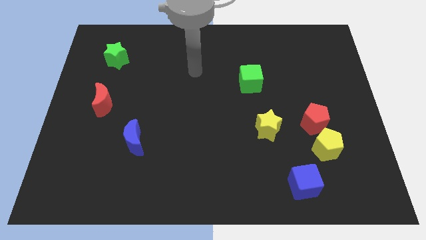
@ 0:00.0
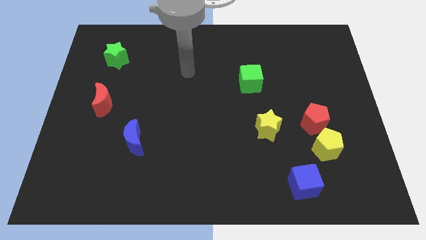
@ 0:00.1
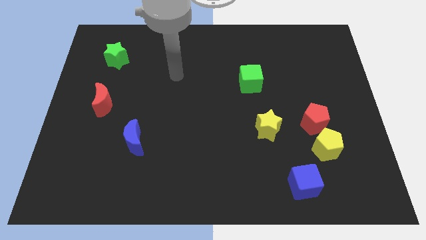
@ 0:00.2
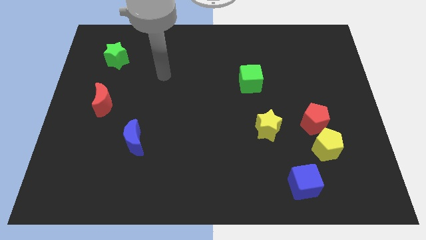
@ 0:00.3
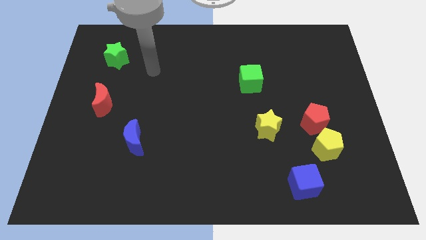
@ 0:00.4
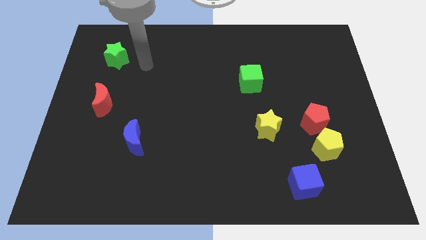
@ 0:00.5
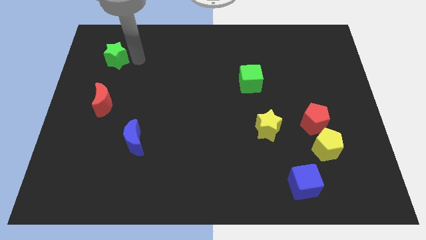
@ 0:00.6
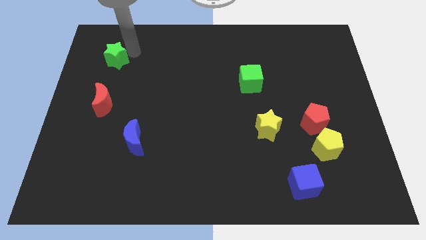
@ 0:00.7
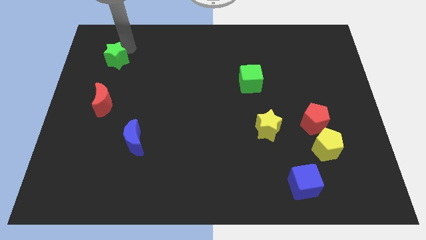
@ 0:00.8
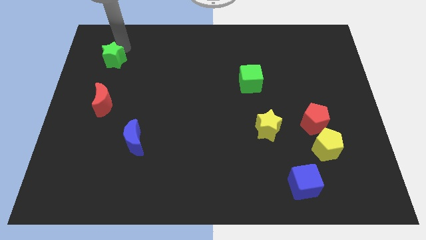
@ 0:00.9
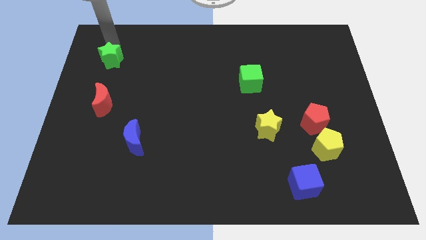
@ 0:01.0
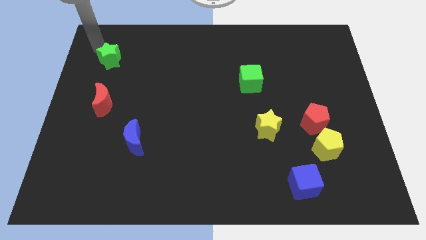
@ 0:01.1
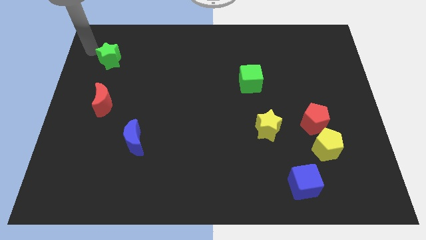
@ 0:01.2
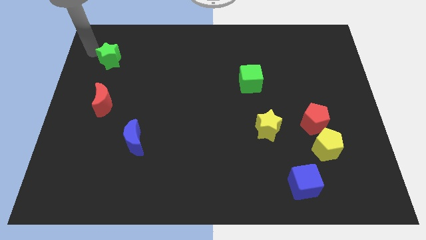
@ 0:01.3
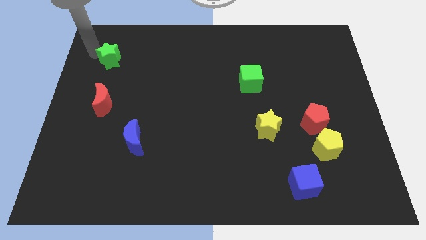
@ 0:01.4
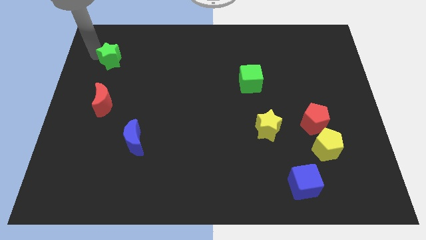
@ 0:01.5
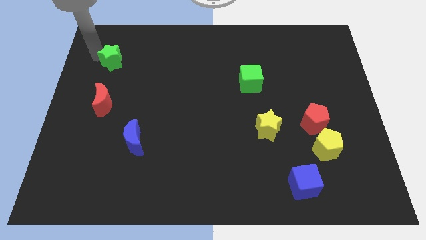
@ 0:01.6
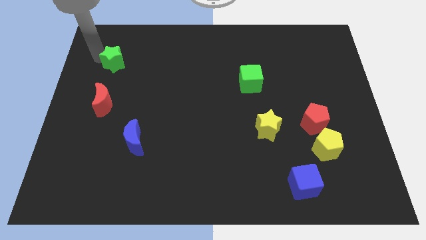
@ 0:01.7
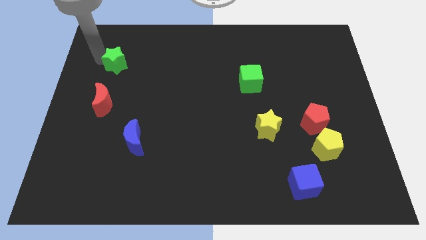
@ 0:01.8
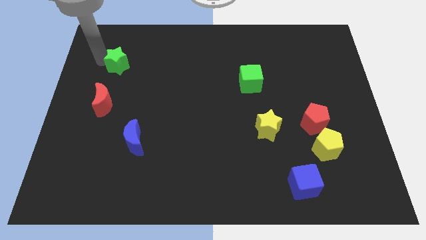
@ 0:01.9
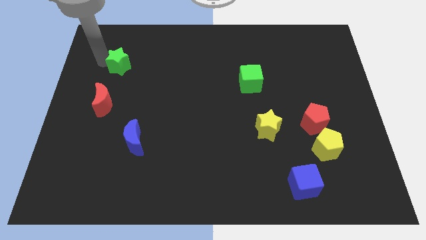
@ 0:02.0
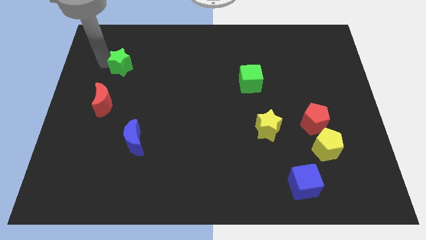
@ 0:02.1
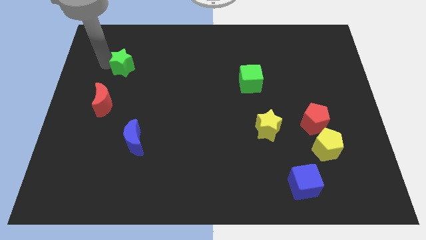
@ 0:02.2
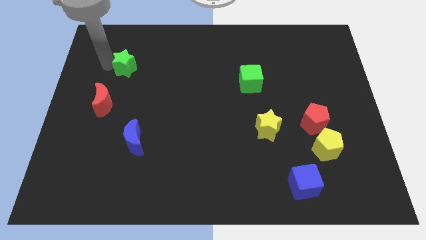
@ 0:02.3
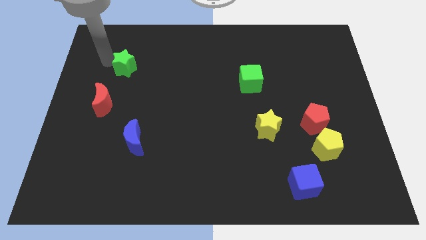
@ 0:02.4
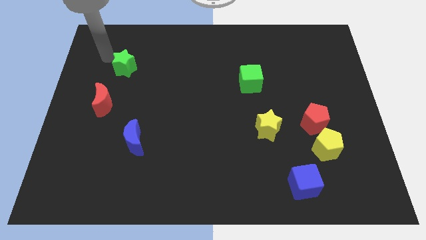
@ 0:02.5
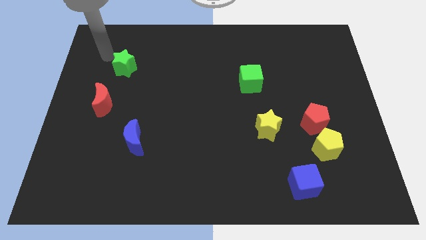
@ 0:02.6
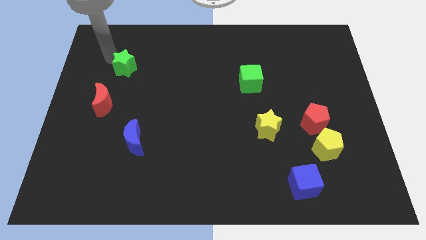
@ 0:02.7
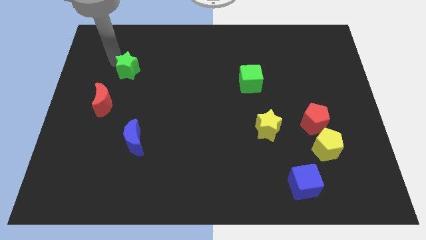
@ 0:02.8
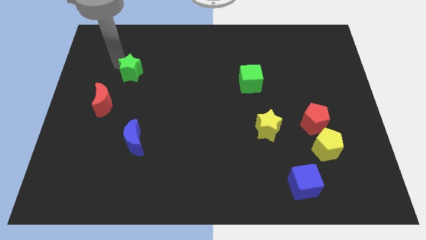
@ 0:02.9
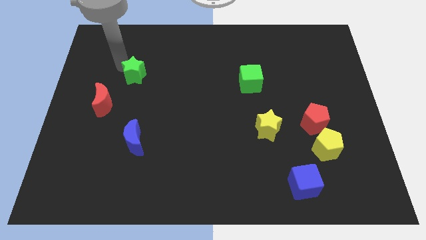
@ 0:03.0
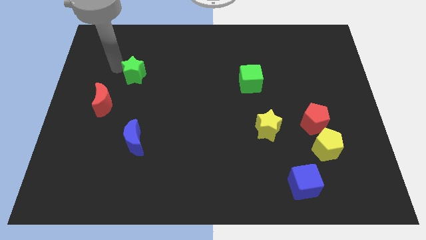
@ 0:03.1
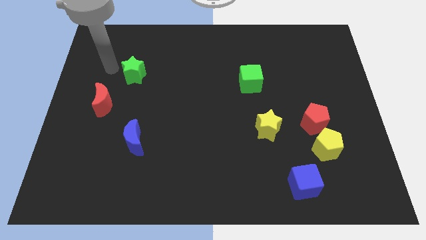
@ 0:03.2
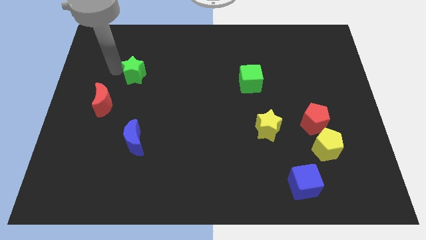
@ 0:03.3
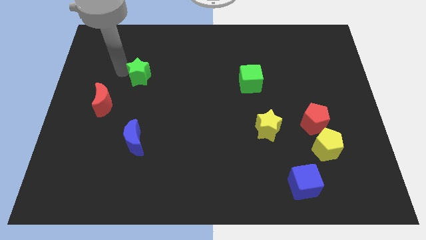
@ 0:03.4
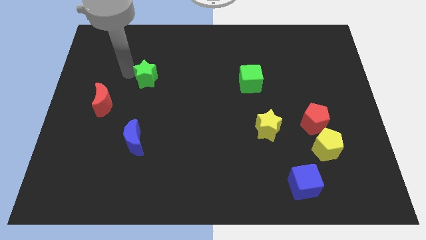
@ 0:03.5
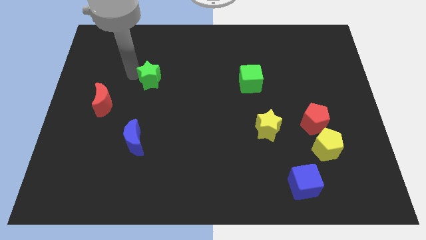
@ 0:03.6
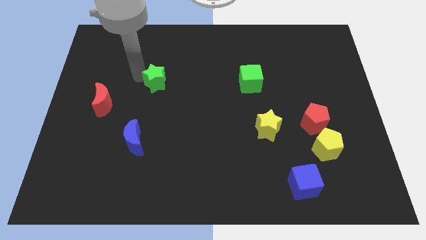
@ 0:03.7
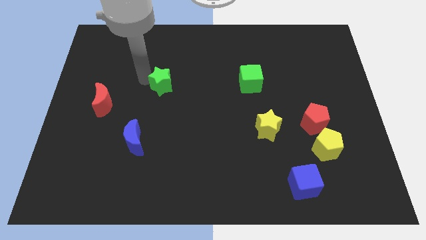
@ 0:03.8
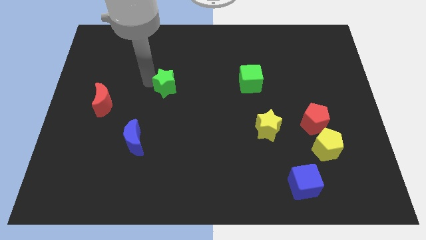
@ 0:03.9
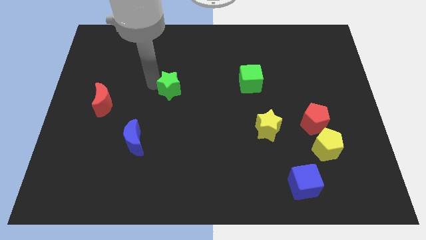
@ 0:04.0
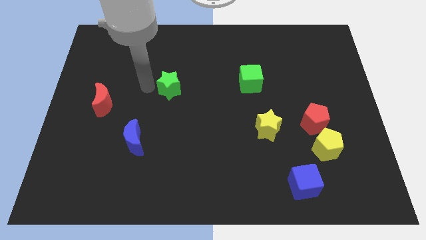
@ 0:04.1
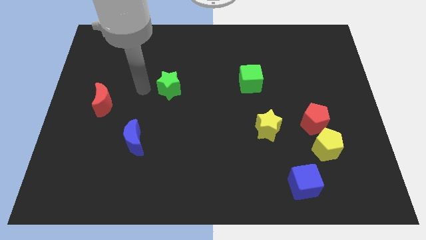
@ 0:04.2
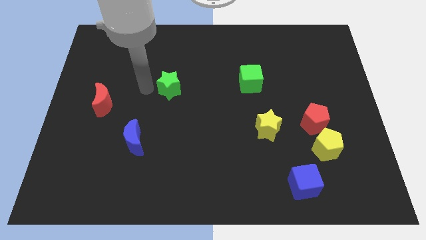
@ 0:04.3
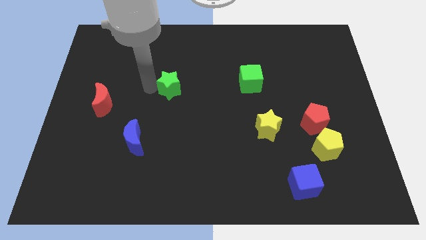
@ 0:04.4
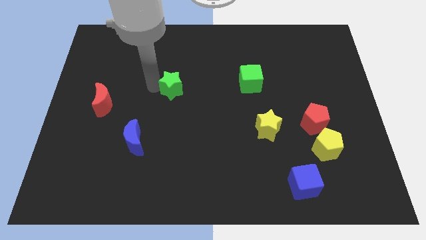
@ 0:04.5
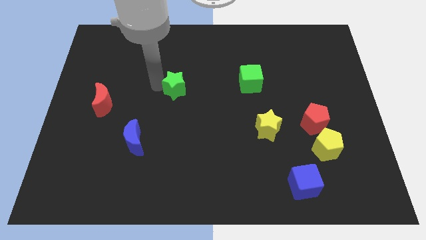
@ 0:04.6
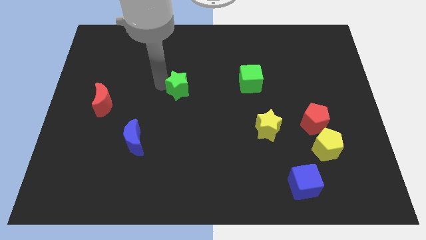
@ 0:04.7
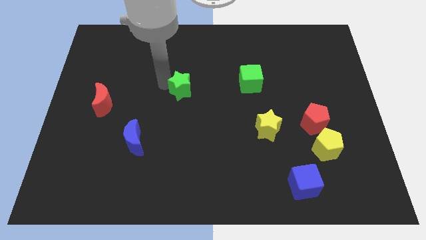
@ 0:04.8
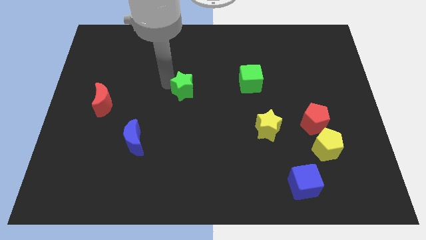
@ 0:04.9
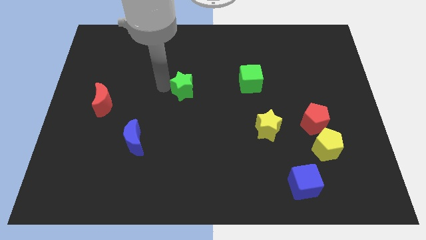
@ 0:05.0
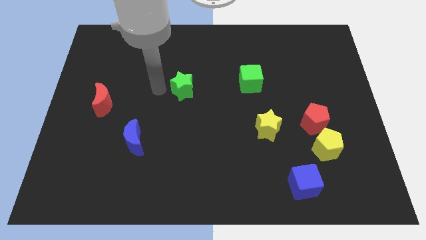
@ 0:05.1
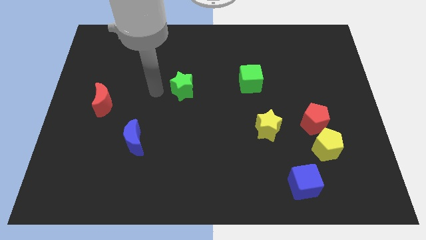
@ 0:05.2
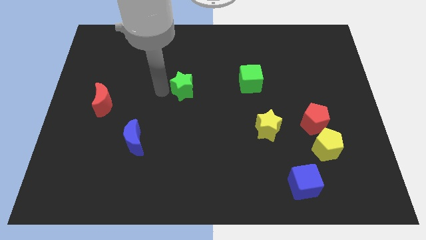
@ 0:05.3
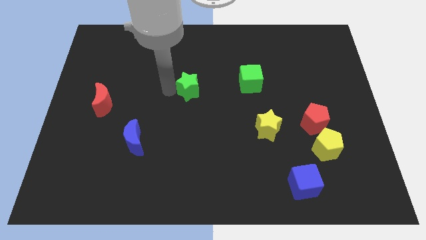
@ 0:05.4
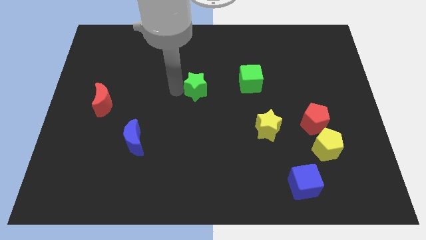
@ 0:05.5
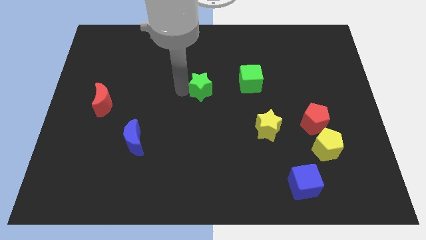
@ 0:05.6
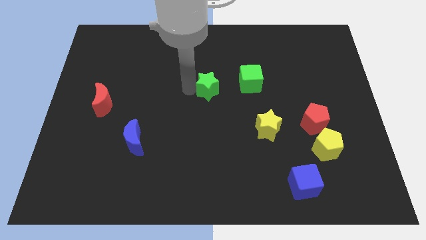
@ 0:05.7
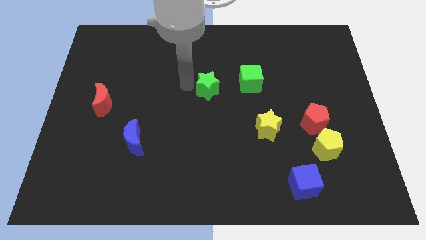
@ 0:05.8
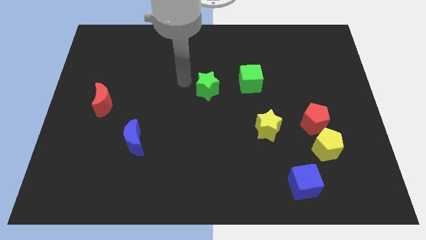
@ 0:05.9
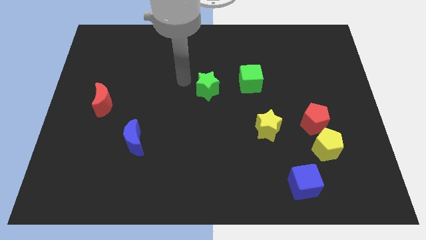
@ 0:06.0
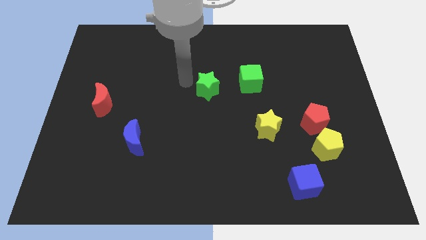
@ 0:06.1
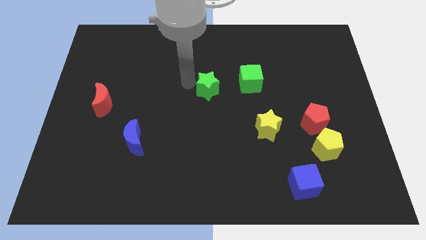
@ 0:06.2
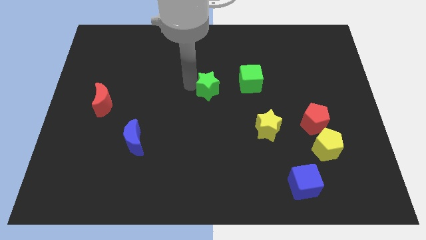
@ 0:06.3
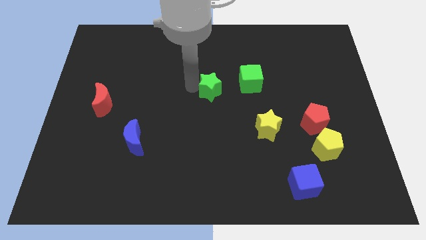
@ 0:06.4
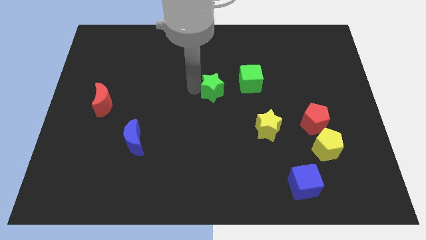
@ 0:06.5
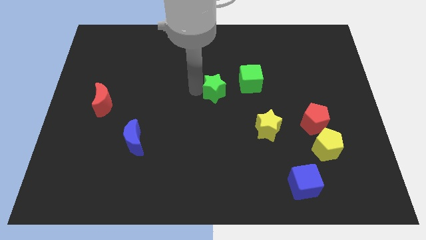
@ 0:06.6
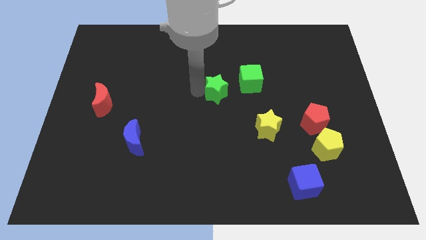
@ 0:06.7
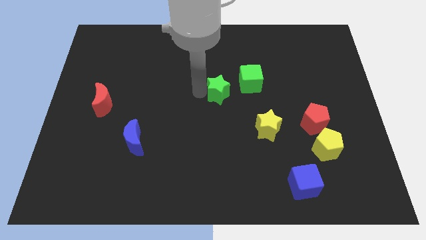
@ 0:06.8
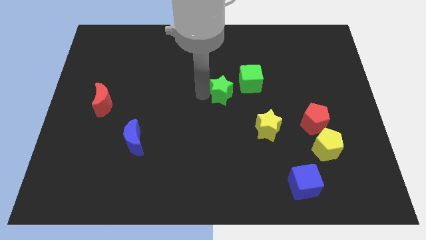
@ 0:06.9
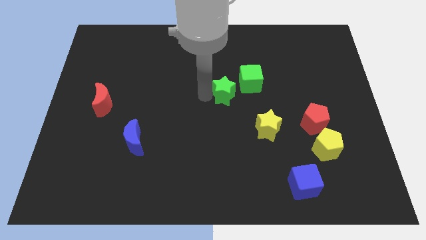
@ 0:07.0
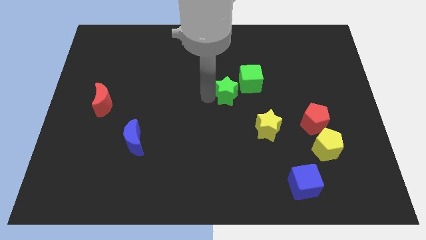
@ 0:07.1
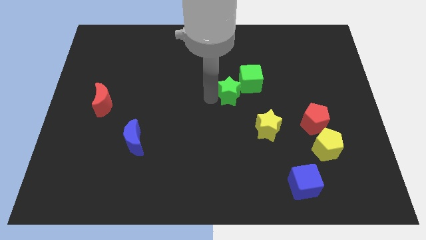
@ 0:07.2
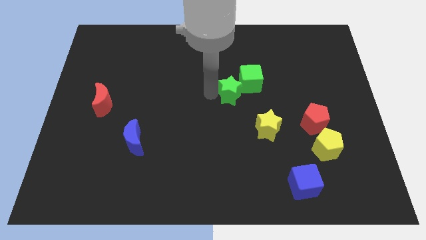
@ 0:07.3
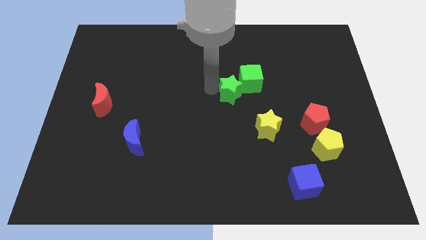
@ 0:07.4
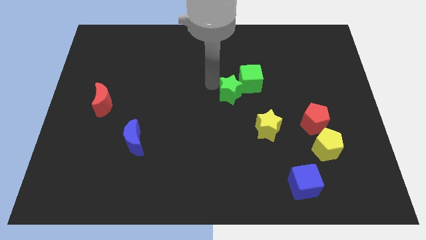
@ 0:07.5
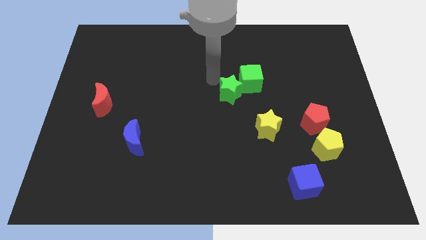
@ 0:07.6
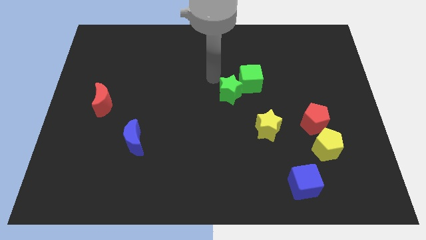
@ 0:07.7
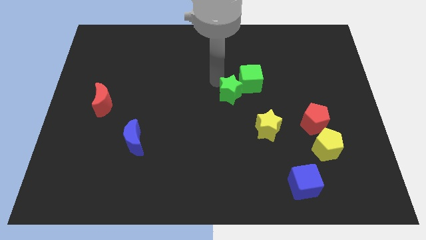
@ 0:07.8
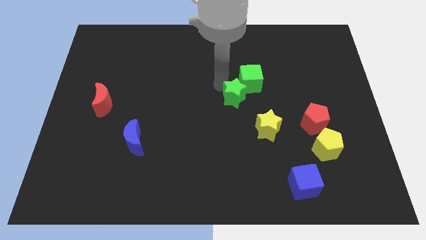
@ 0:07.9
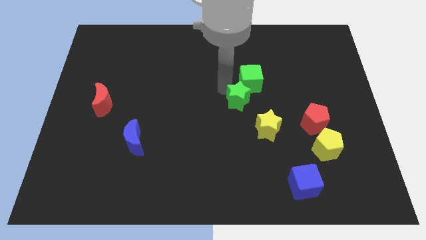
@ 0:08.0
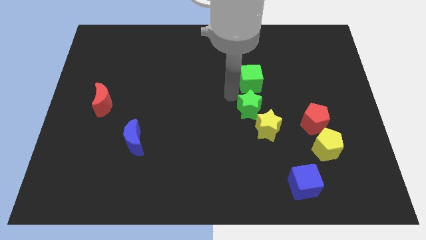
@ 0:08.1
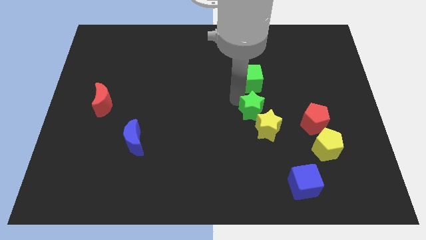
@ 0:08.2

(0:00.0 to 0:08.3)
move the green star next to the yellow star
